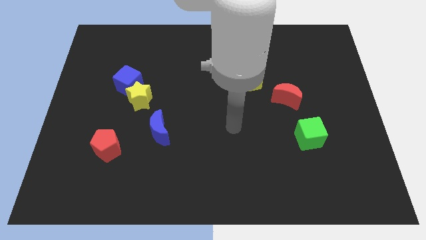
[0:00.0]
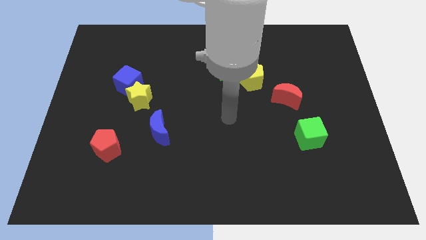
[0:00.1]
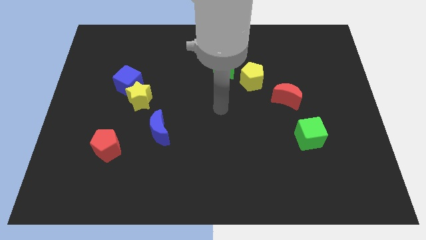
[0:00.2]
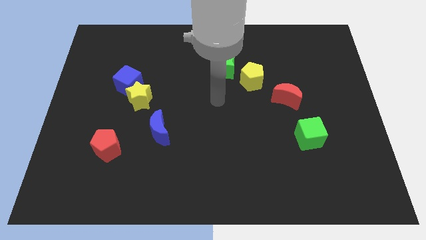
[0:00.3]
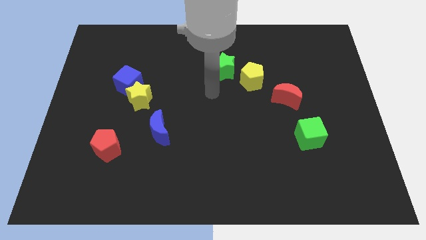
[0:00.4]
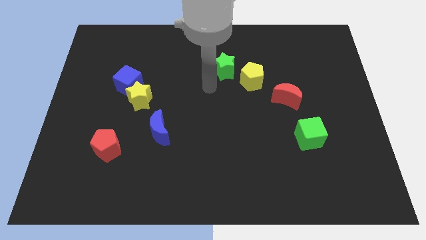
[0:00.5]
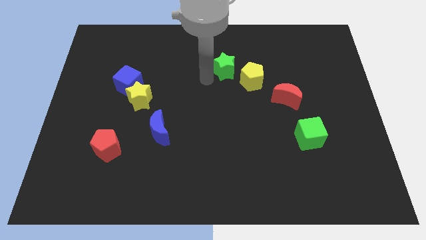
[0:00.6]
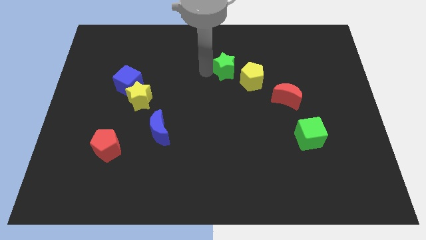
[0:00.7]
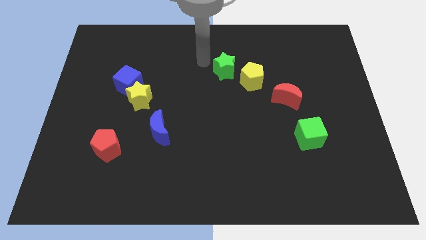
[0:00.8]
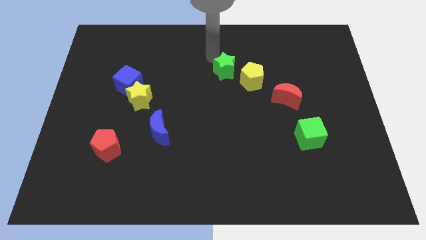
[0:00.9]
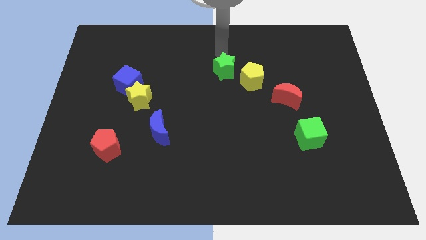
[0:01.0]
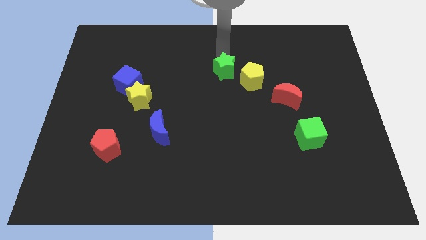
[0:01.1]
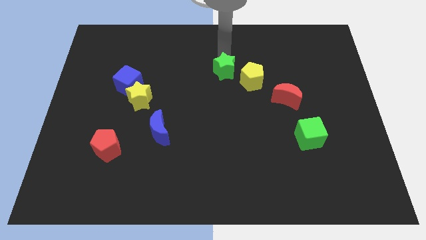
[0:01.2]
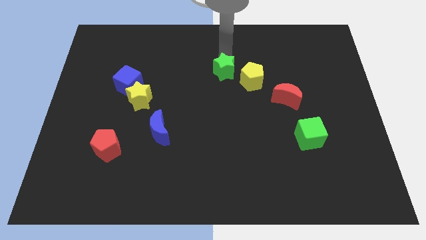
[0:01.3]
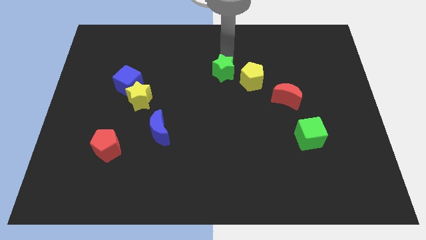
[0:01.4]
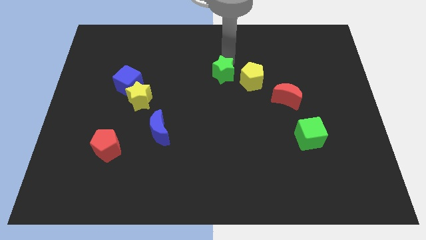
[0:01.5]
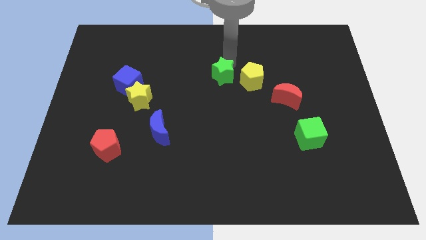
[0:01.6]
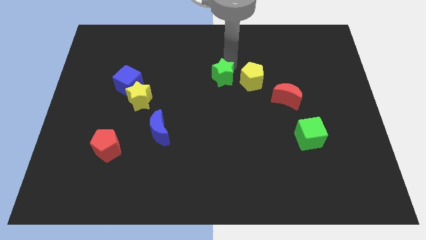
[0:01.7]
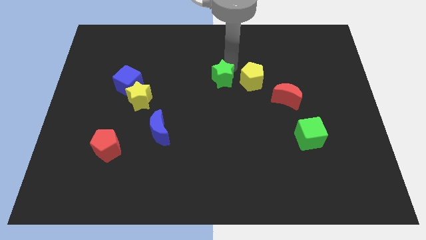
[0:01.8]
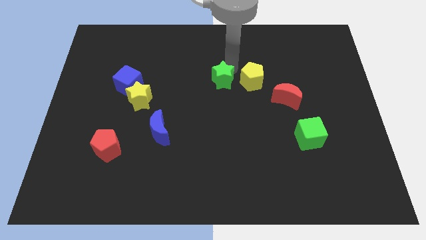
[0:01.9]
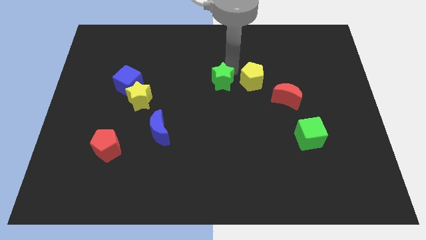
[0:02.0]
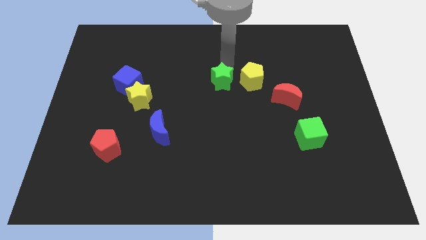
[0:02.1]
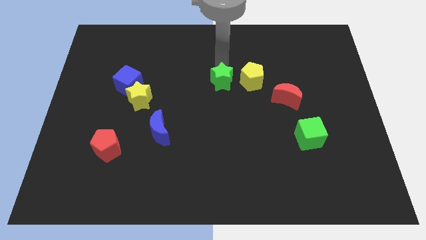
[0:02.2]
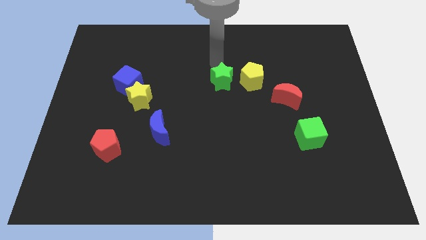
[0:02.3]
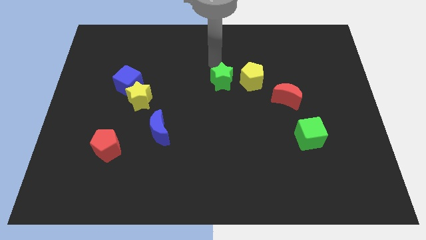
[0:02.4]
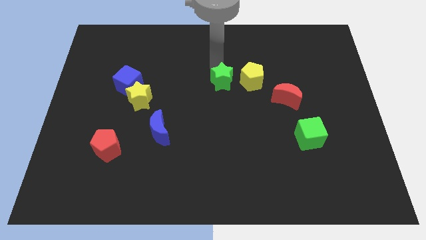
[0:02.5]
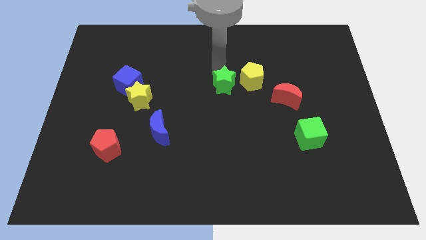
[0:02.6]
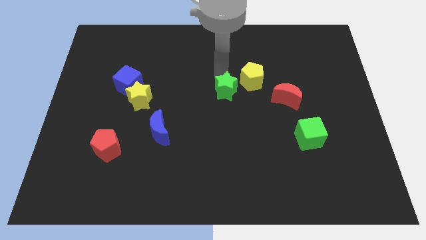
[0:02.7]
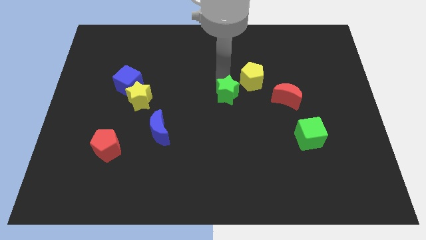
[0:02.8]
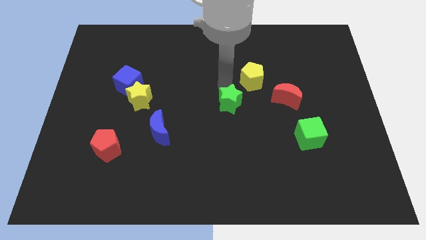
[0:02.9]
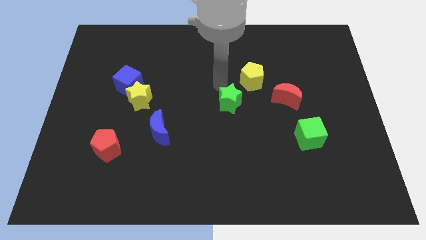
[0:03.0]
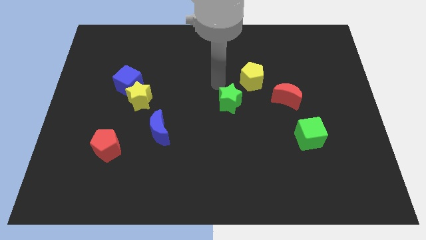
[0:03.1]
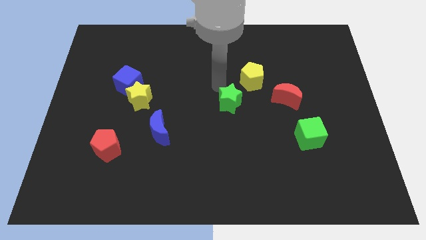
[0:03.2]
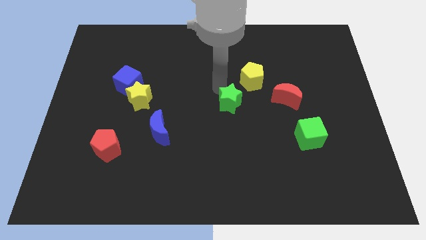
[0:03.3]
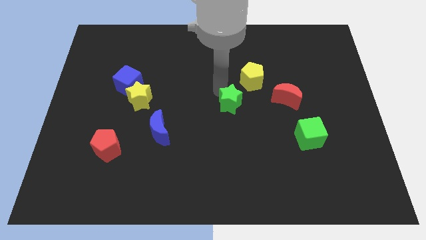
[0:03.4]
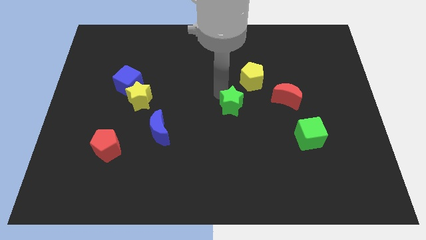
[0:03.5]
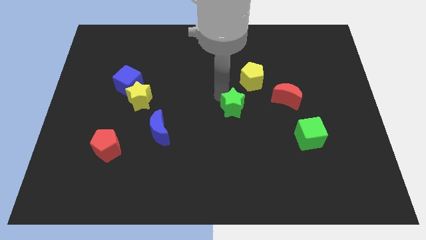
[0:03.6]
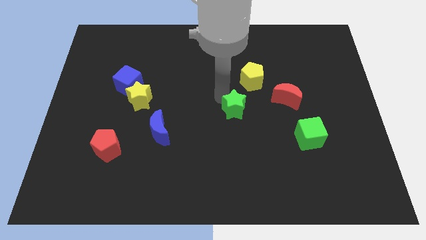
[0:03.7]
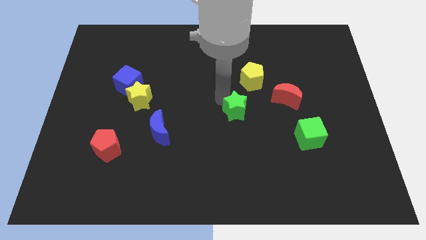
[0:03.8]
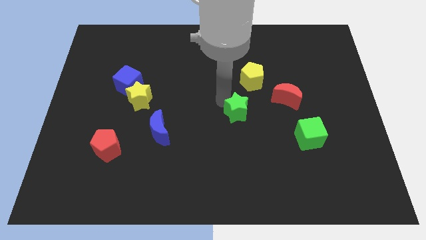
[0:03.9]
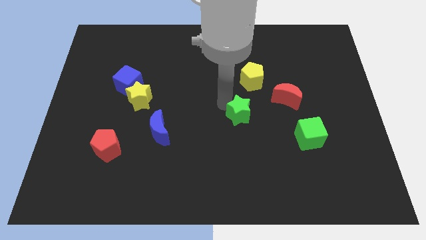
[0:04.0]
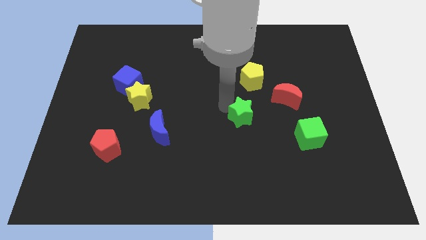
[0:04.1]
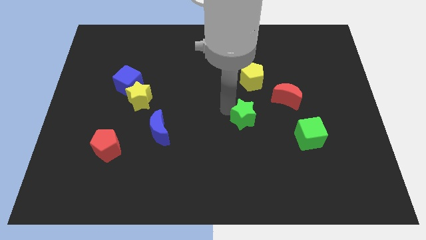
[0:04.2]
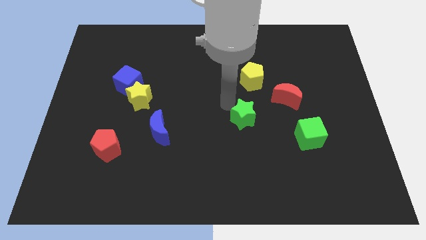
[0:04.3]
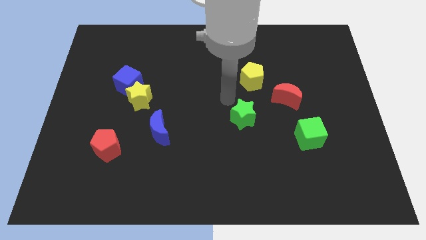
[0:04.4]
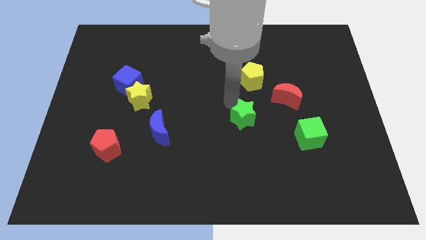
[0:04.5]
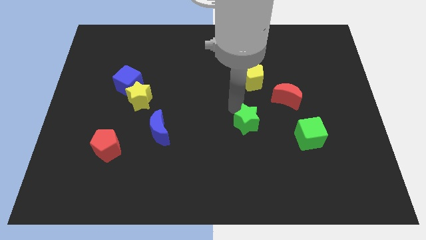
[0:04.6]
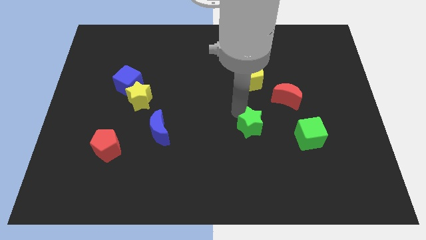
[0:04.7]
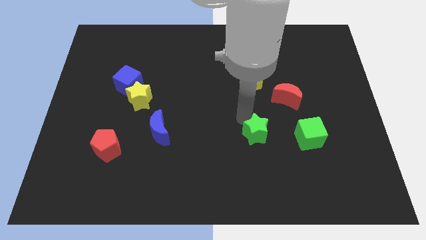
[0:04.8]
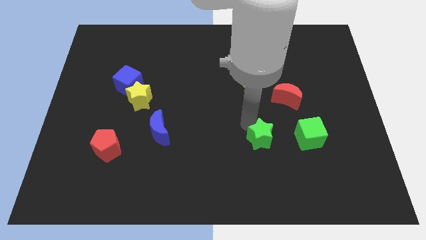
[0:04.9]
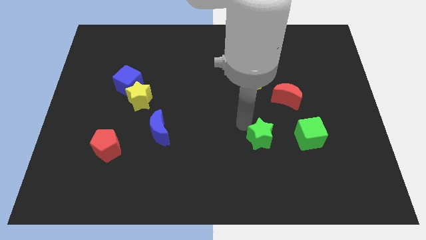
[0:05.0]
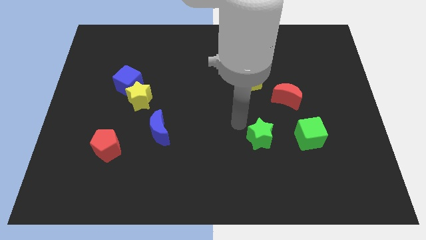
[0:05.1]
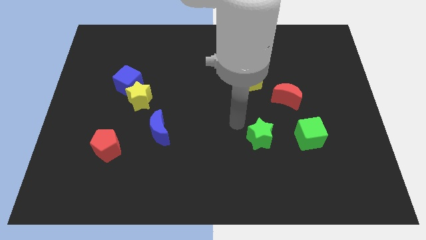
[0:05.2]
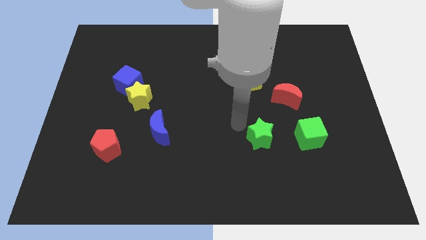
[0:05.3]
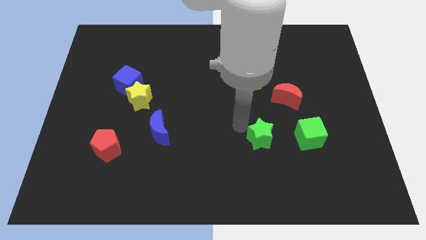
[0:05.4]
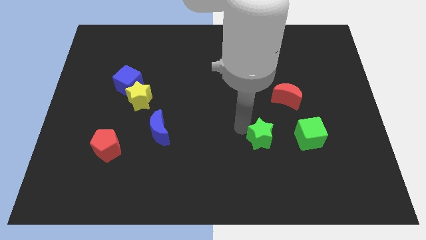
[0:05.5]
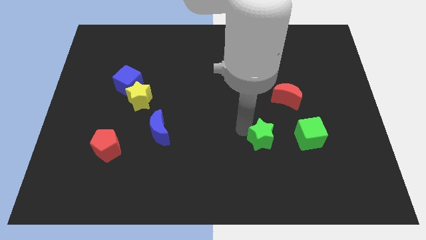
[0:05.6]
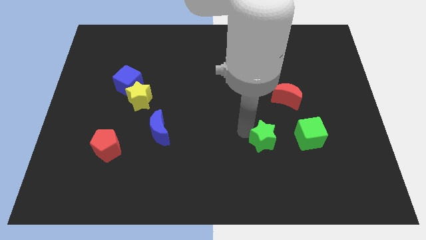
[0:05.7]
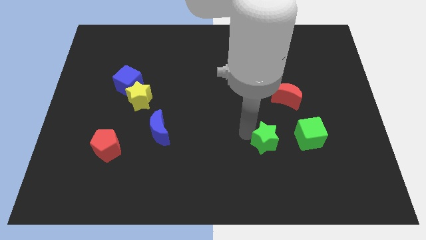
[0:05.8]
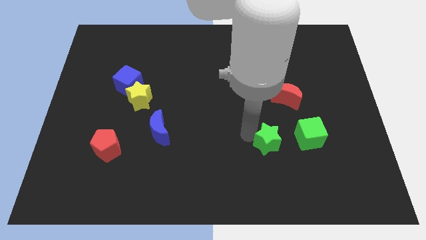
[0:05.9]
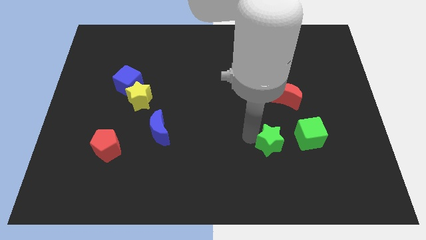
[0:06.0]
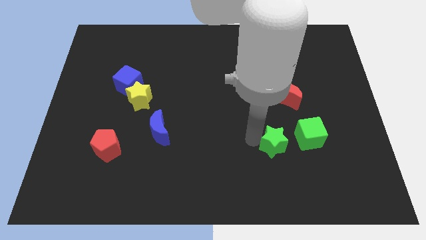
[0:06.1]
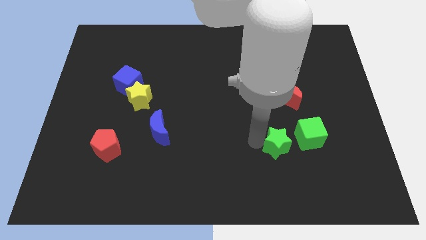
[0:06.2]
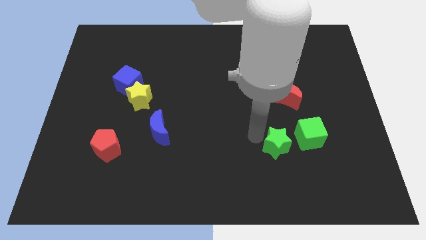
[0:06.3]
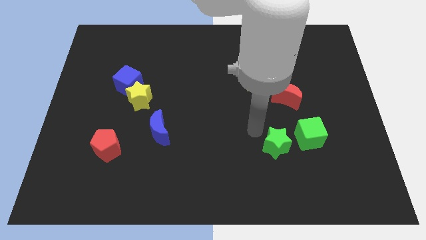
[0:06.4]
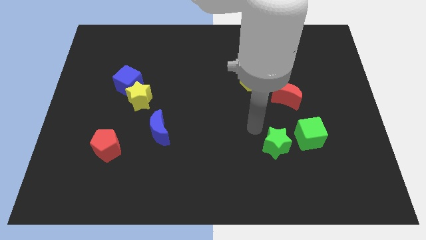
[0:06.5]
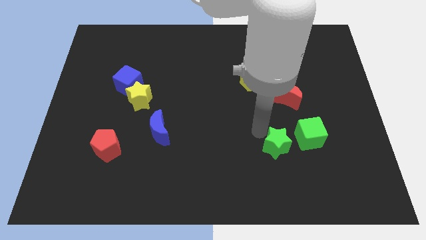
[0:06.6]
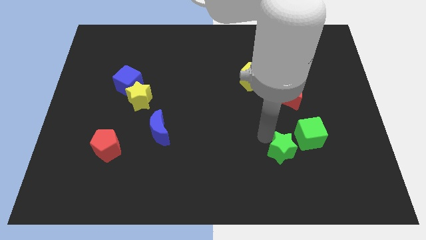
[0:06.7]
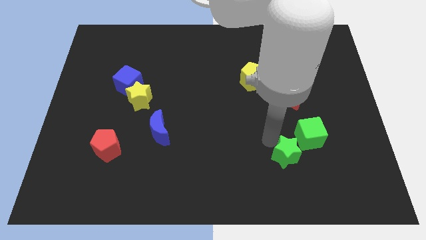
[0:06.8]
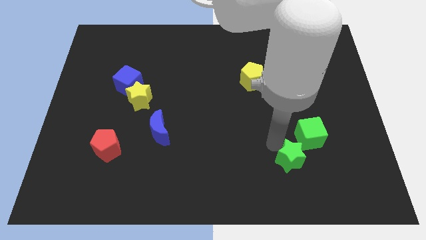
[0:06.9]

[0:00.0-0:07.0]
put the green star to the bottom of the green cube

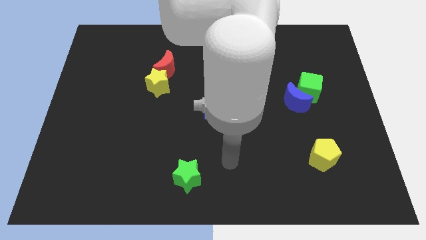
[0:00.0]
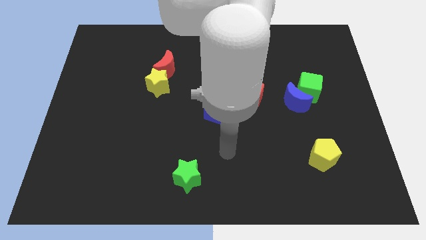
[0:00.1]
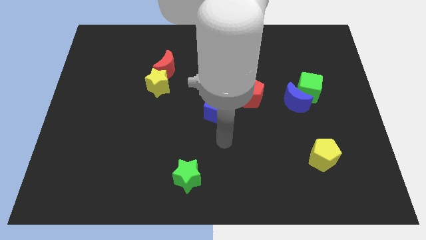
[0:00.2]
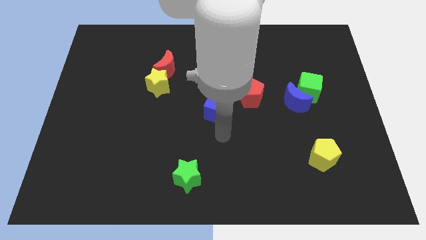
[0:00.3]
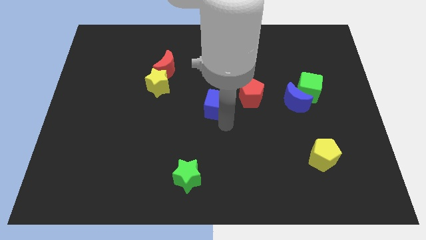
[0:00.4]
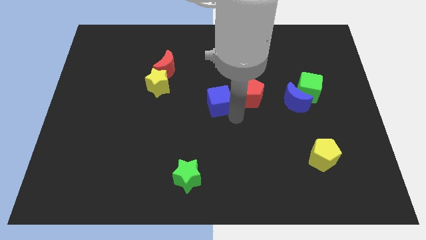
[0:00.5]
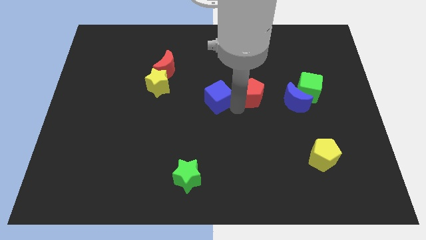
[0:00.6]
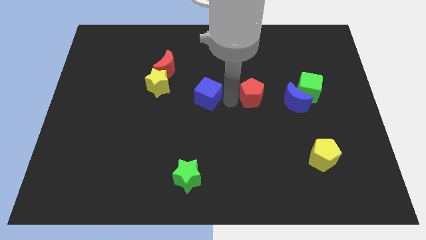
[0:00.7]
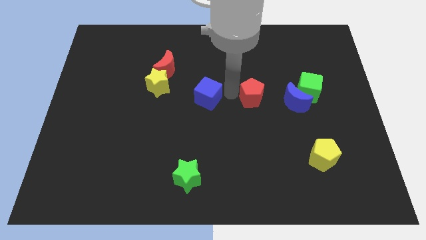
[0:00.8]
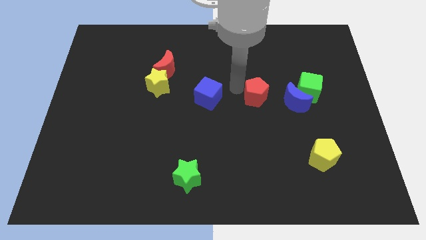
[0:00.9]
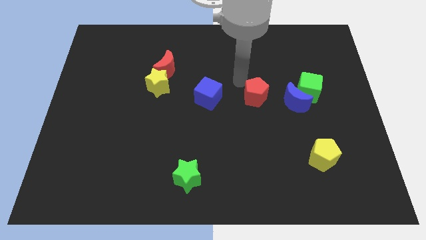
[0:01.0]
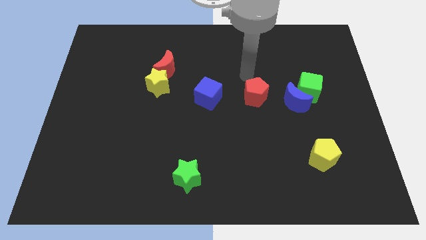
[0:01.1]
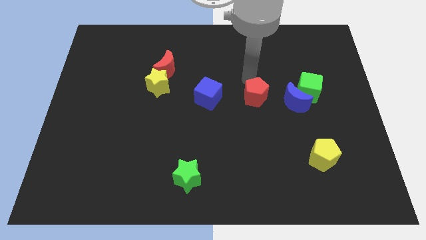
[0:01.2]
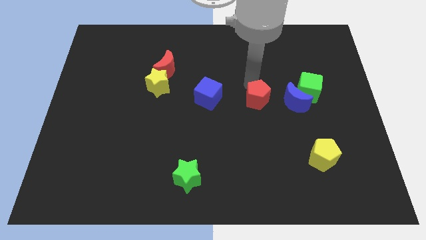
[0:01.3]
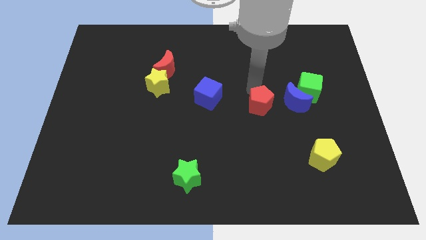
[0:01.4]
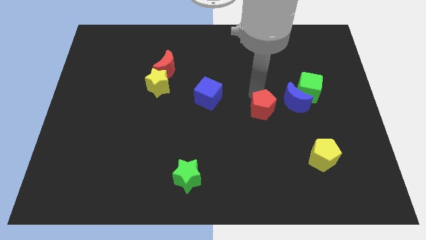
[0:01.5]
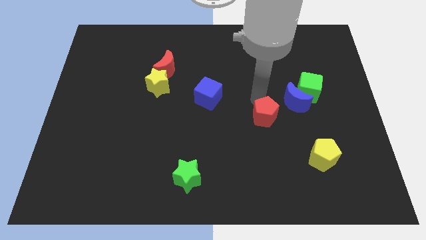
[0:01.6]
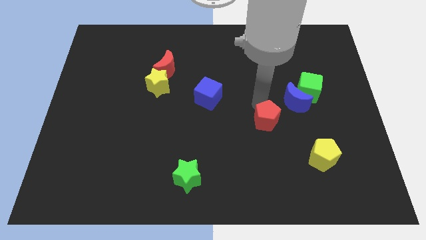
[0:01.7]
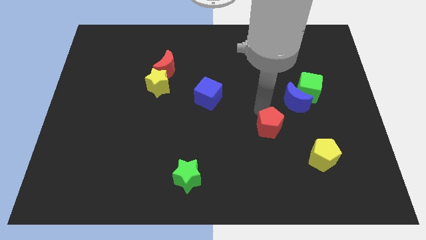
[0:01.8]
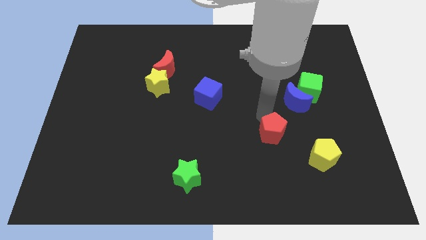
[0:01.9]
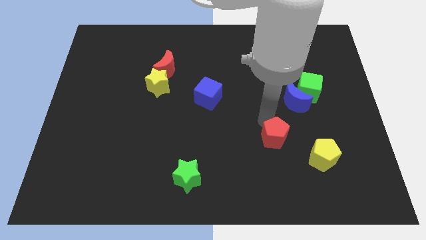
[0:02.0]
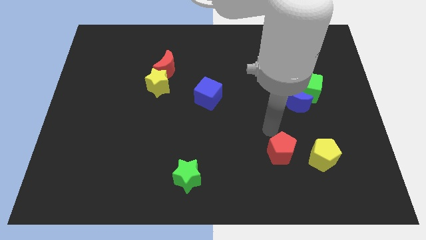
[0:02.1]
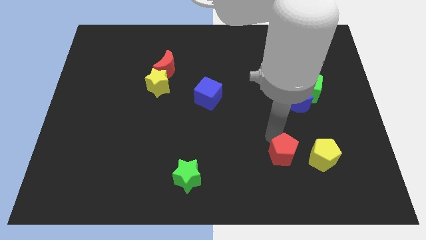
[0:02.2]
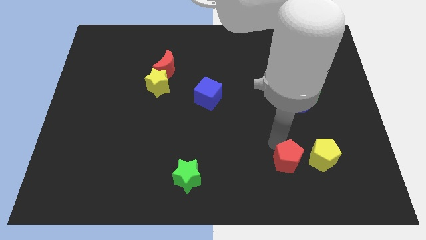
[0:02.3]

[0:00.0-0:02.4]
push the red pentagon diagonally down and to the left of the yellow pentagon
